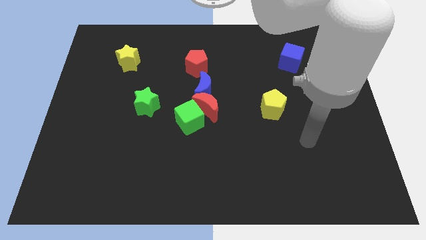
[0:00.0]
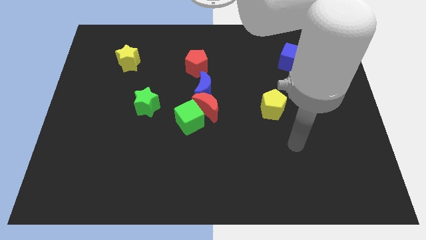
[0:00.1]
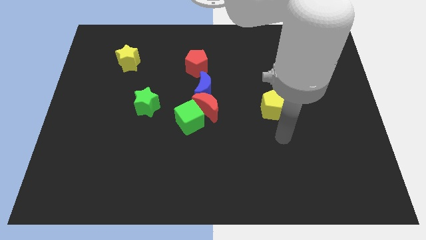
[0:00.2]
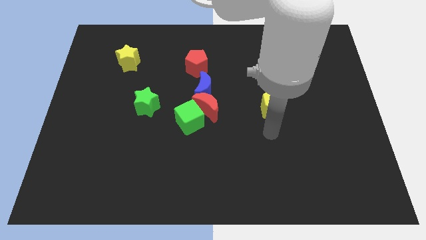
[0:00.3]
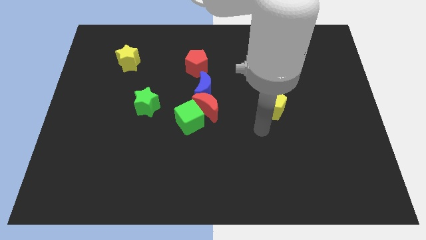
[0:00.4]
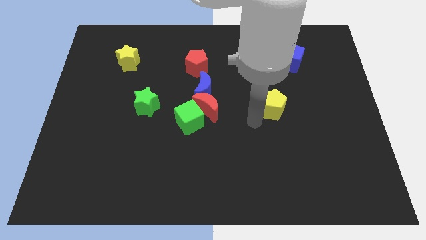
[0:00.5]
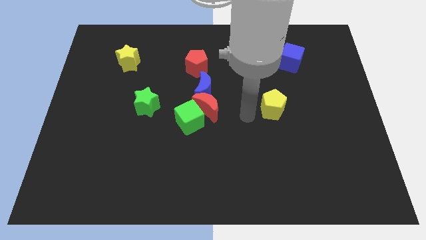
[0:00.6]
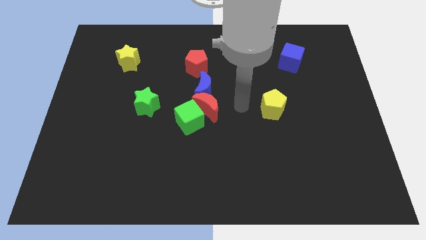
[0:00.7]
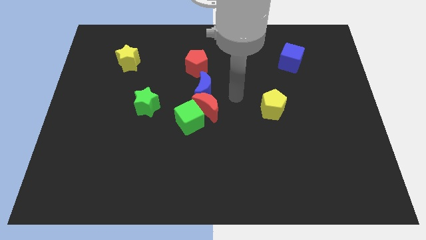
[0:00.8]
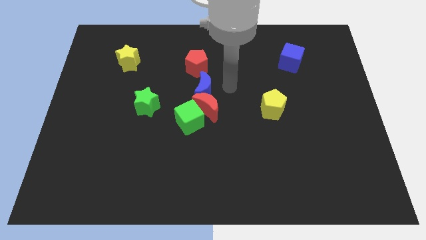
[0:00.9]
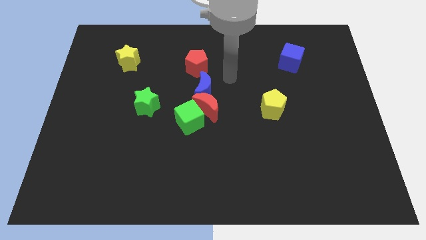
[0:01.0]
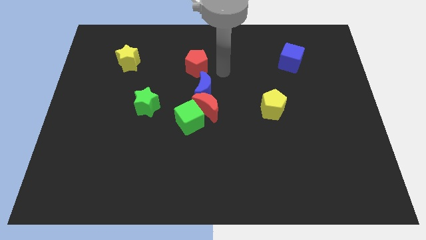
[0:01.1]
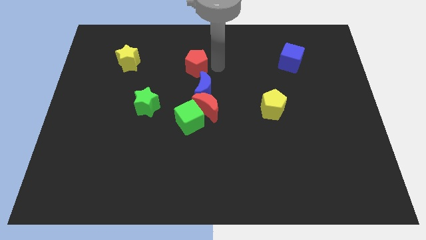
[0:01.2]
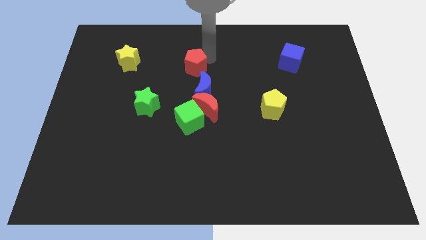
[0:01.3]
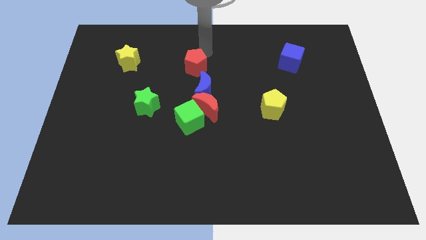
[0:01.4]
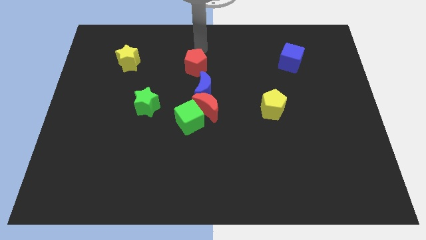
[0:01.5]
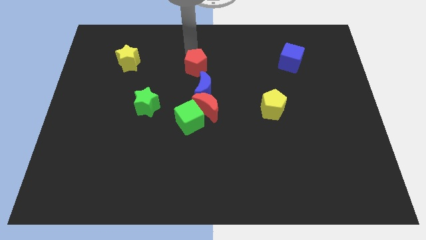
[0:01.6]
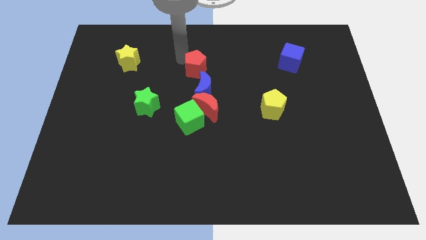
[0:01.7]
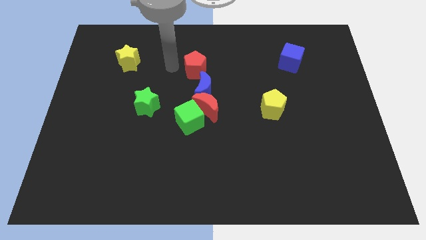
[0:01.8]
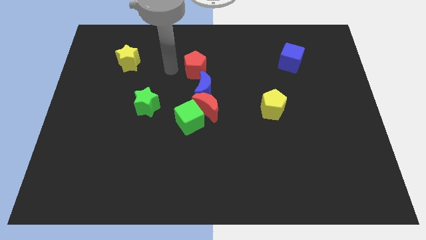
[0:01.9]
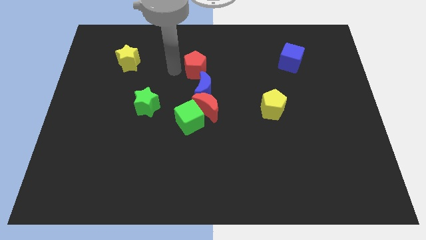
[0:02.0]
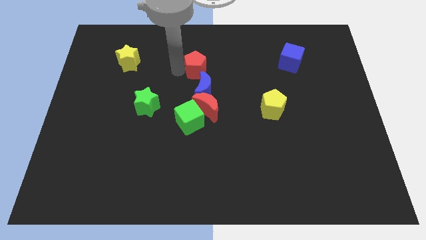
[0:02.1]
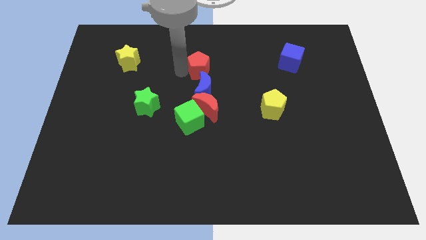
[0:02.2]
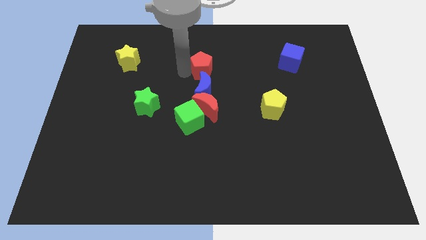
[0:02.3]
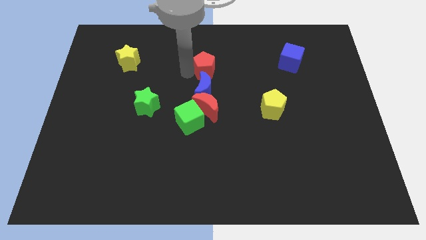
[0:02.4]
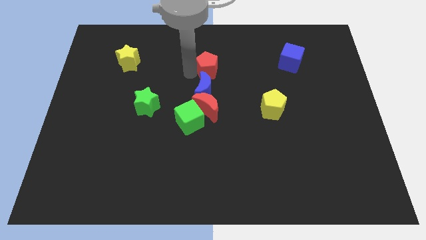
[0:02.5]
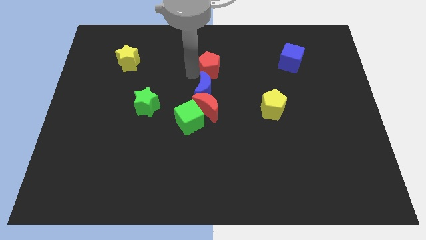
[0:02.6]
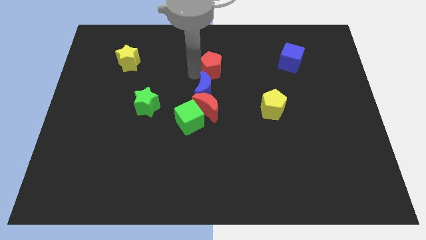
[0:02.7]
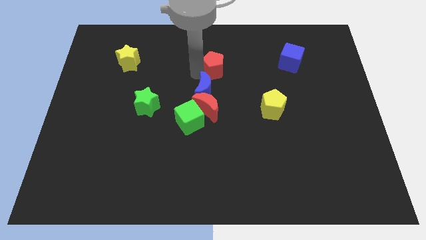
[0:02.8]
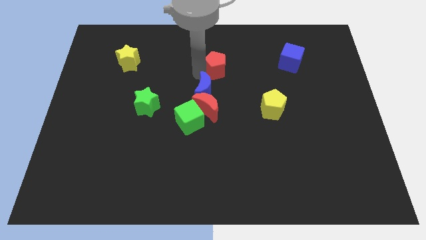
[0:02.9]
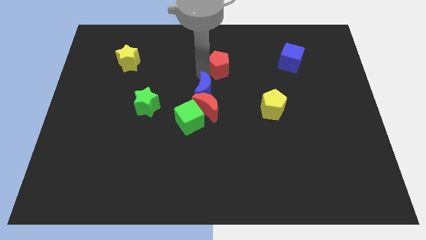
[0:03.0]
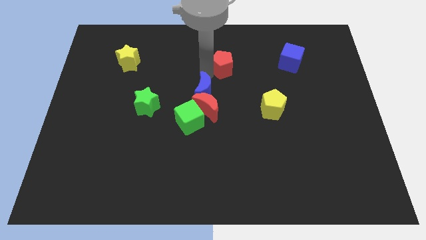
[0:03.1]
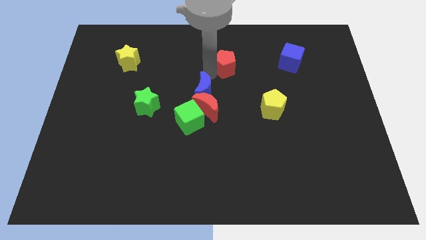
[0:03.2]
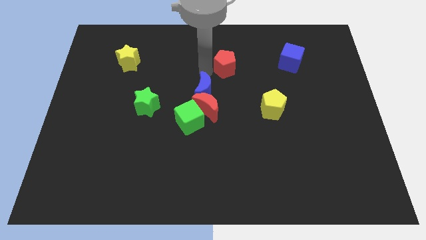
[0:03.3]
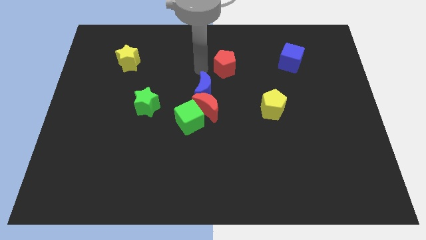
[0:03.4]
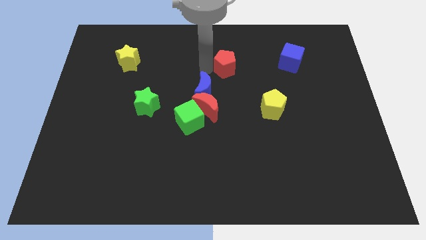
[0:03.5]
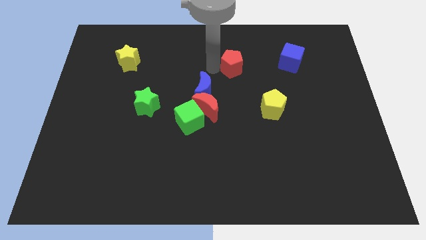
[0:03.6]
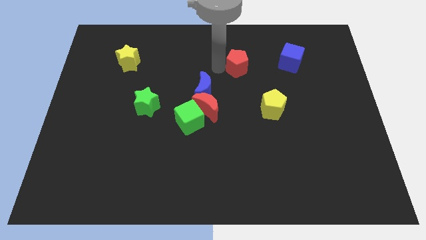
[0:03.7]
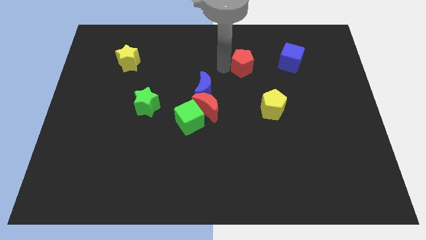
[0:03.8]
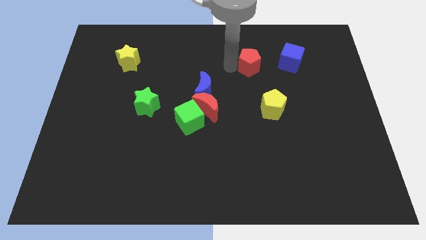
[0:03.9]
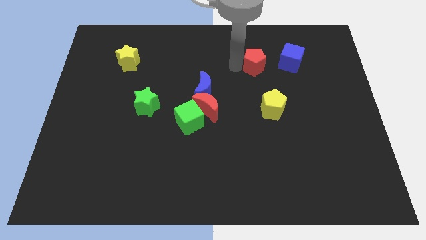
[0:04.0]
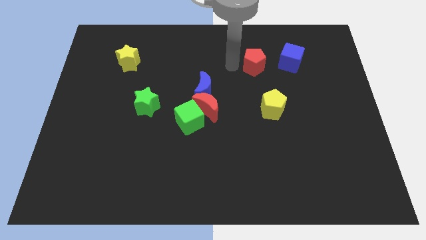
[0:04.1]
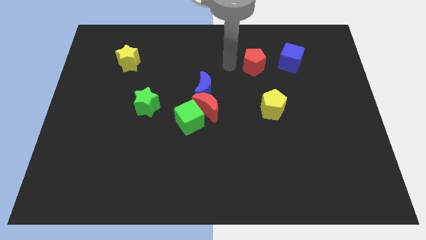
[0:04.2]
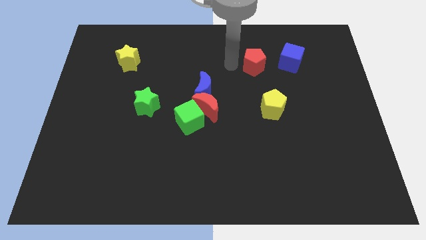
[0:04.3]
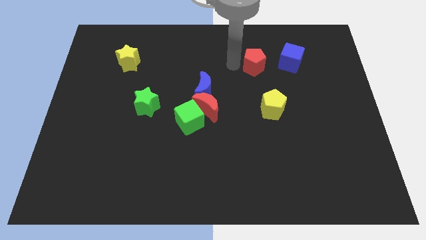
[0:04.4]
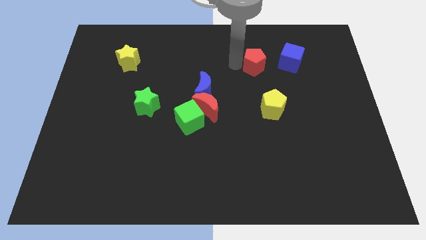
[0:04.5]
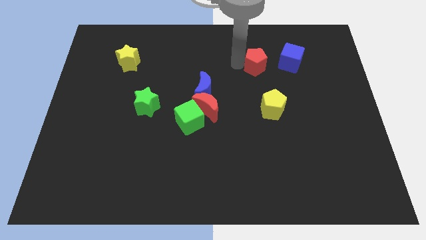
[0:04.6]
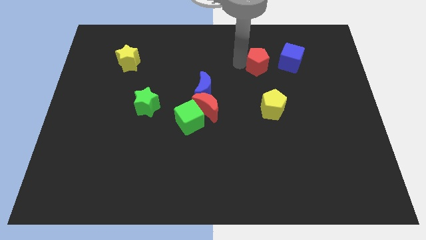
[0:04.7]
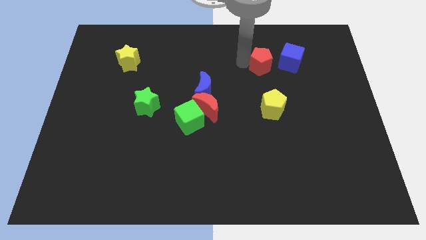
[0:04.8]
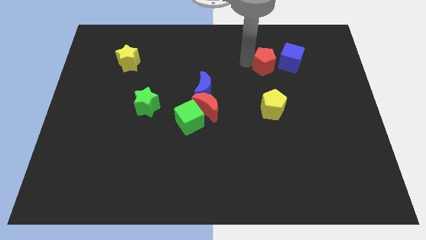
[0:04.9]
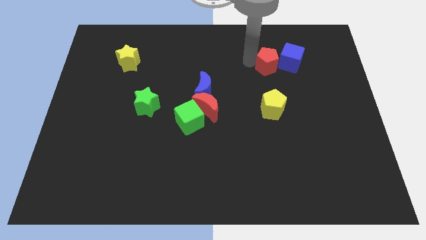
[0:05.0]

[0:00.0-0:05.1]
move the red pentagon to the blue cube

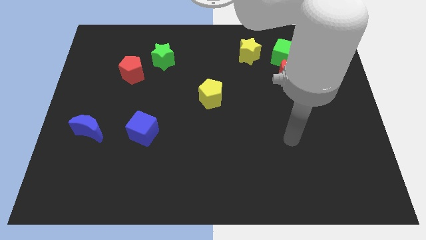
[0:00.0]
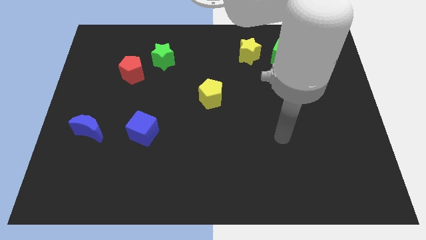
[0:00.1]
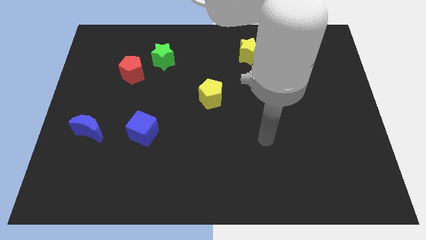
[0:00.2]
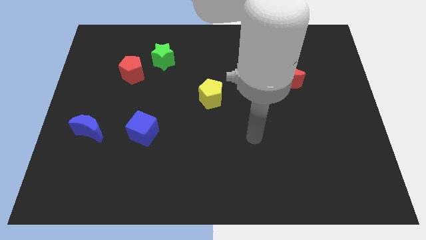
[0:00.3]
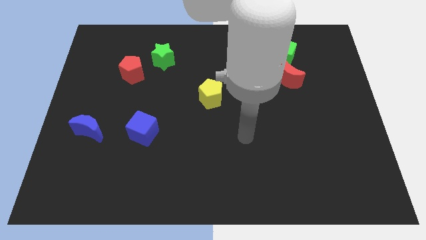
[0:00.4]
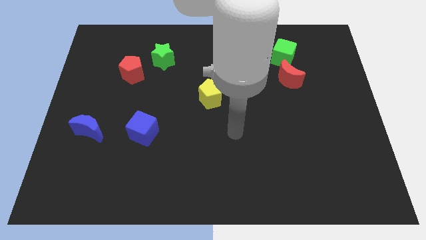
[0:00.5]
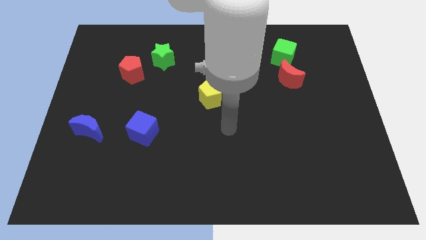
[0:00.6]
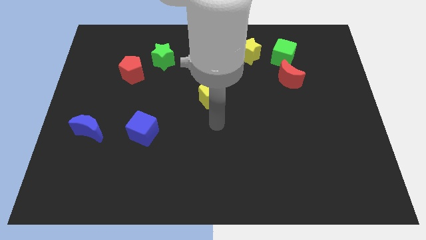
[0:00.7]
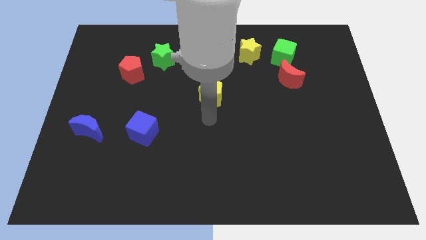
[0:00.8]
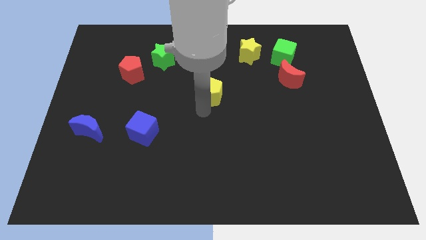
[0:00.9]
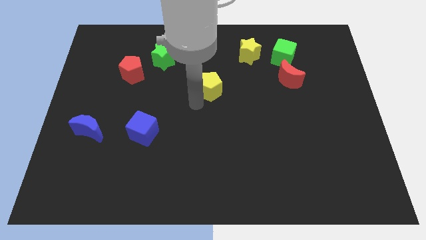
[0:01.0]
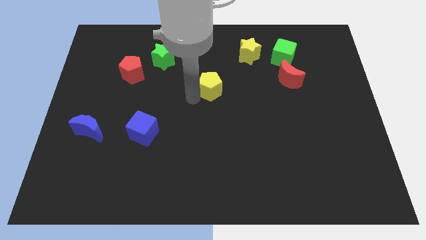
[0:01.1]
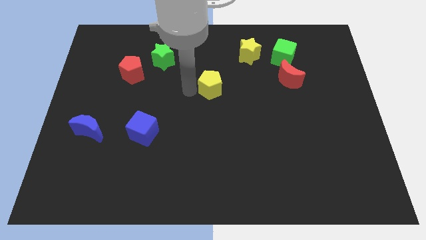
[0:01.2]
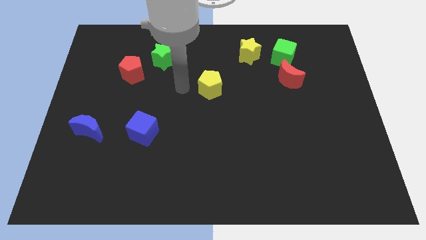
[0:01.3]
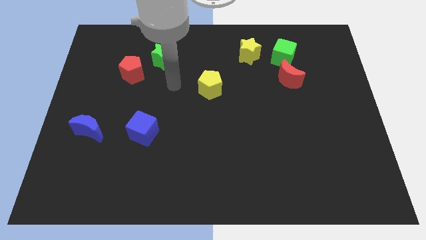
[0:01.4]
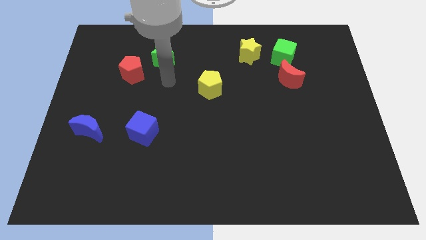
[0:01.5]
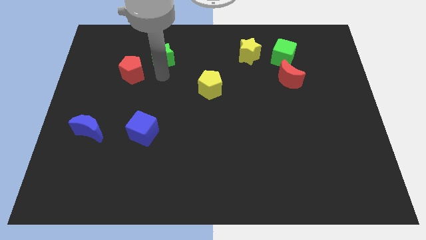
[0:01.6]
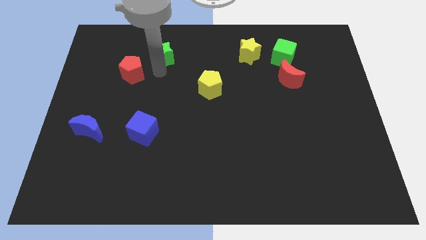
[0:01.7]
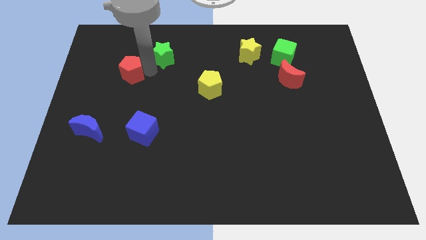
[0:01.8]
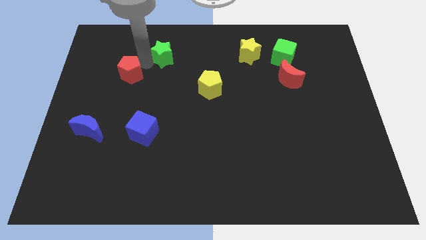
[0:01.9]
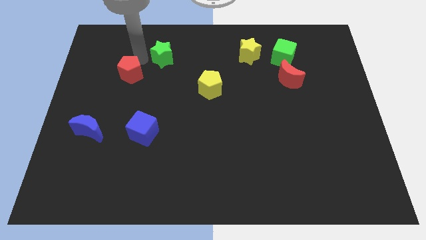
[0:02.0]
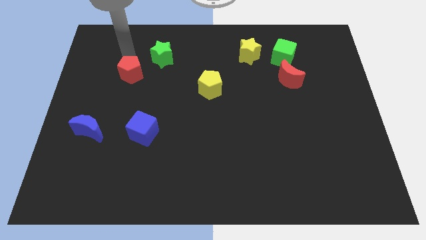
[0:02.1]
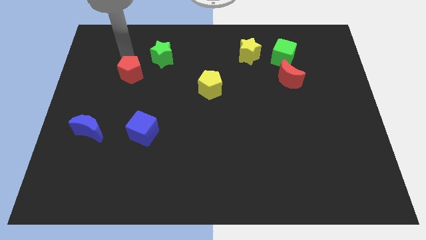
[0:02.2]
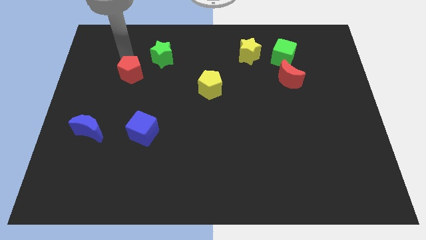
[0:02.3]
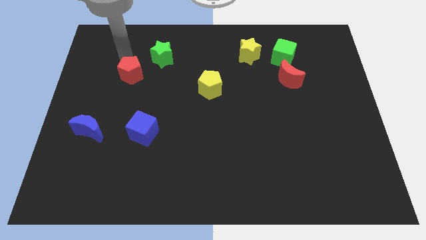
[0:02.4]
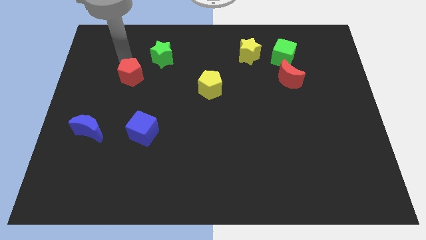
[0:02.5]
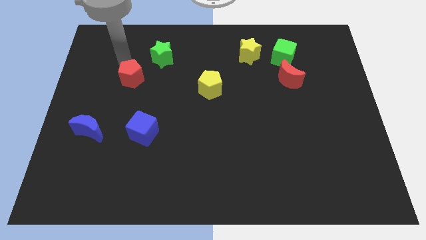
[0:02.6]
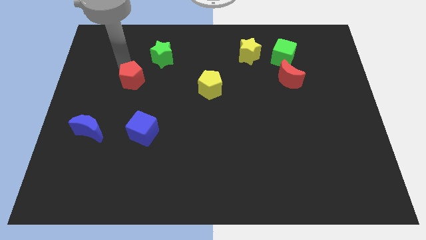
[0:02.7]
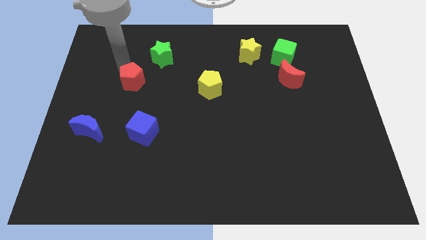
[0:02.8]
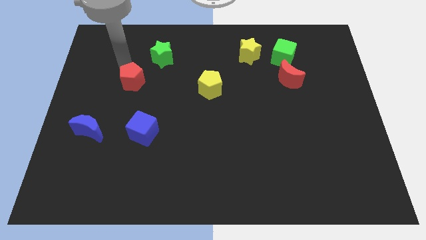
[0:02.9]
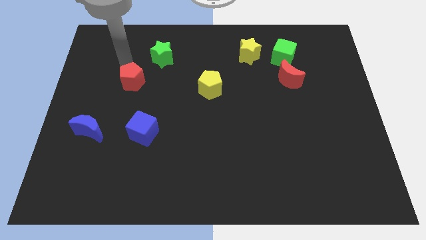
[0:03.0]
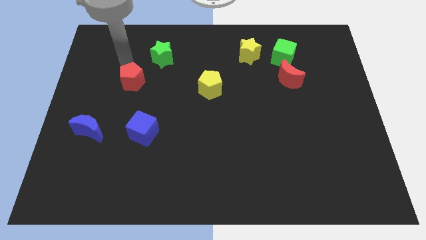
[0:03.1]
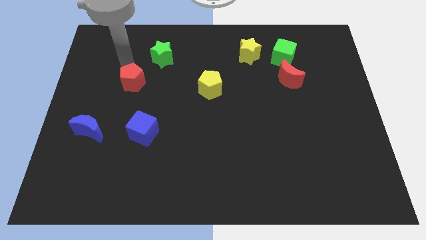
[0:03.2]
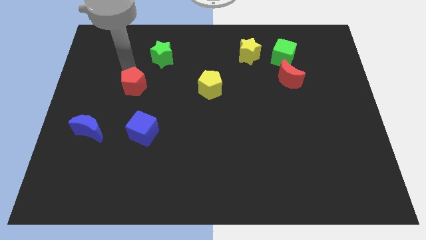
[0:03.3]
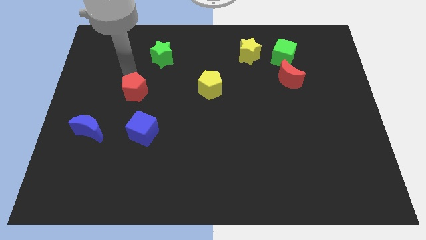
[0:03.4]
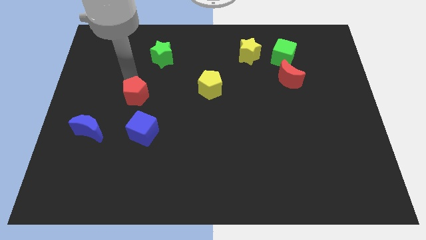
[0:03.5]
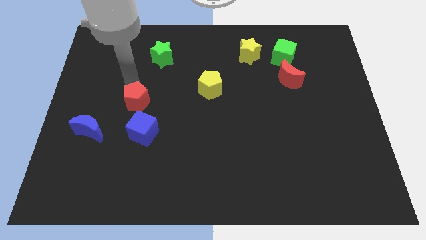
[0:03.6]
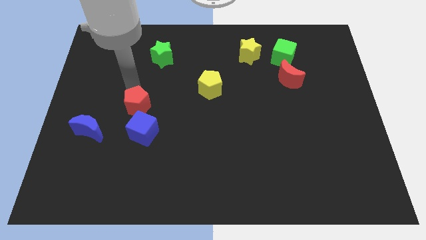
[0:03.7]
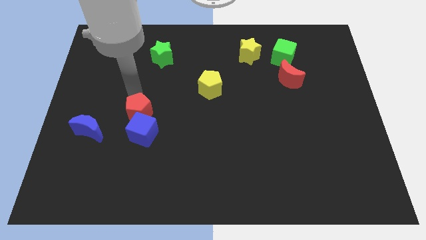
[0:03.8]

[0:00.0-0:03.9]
slide the red pentagon to the blue cube
